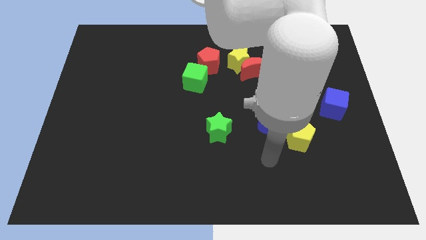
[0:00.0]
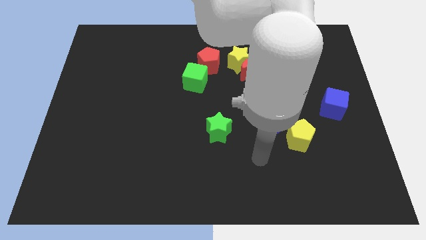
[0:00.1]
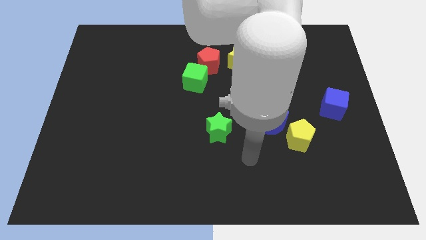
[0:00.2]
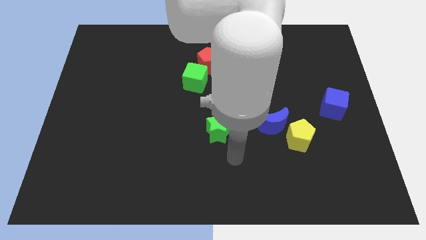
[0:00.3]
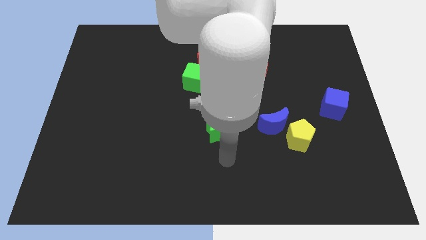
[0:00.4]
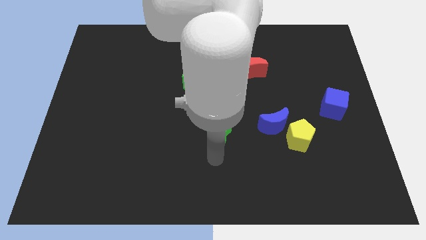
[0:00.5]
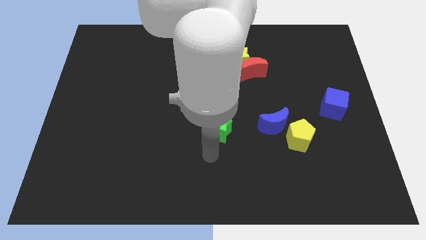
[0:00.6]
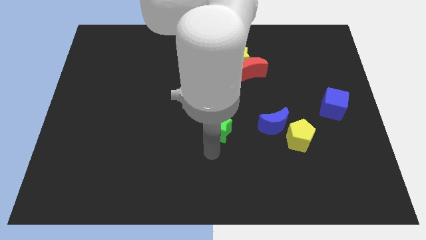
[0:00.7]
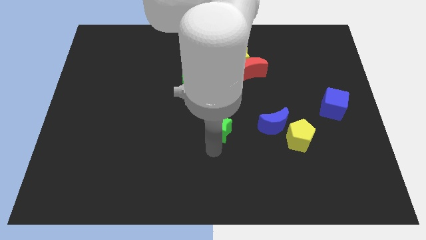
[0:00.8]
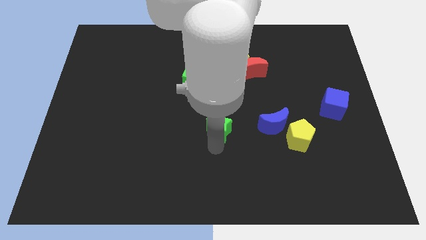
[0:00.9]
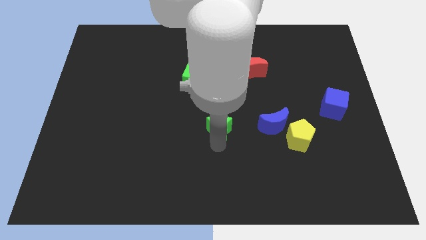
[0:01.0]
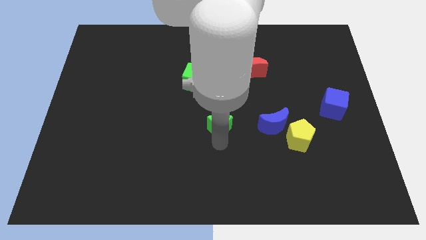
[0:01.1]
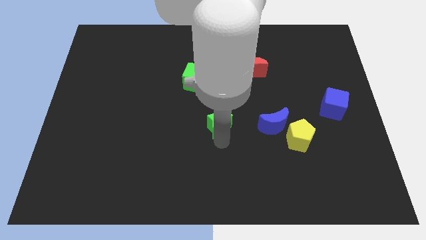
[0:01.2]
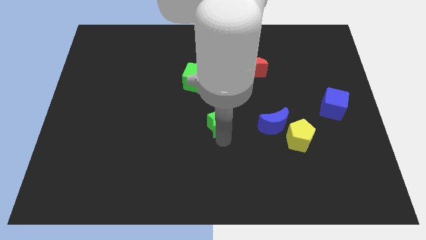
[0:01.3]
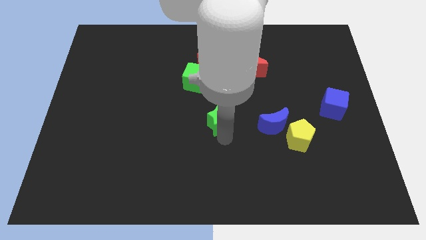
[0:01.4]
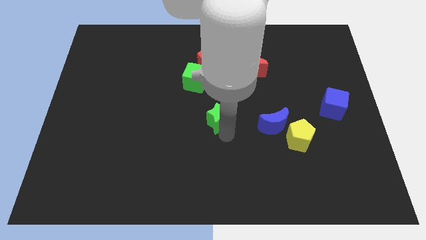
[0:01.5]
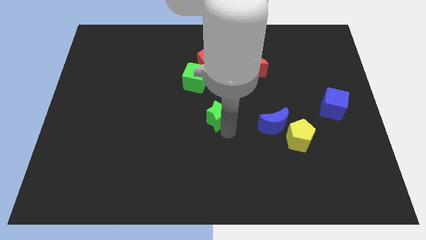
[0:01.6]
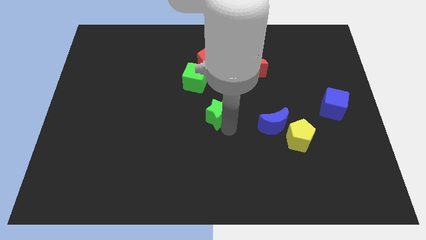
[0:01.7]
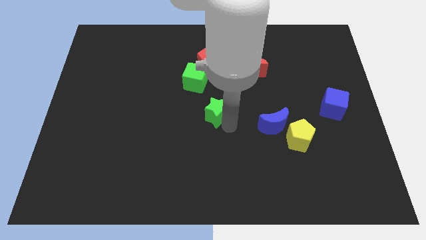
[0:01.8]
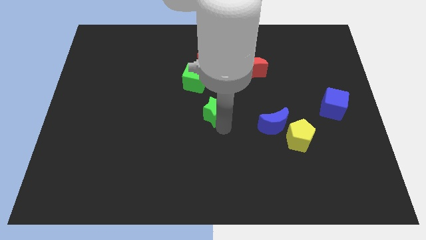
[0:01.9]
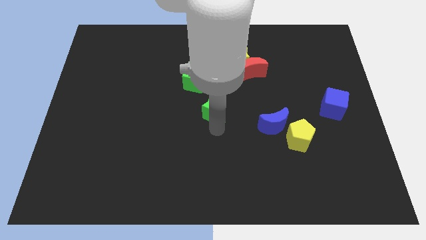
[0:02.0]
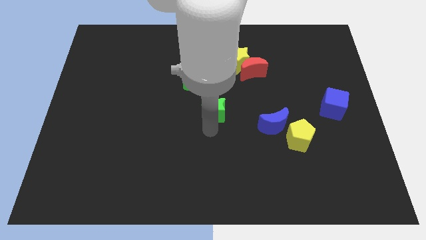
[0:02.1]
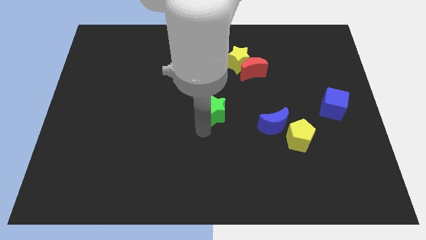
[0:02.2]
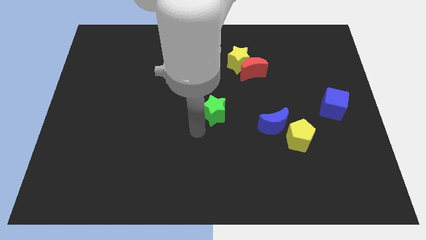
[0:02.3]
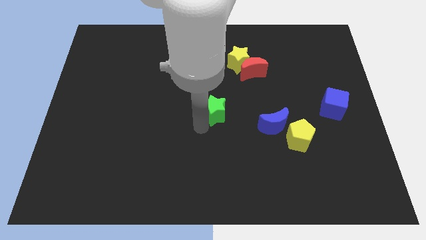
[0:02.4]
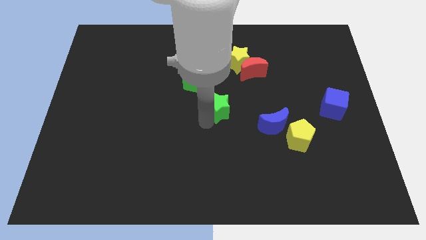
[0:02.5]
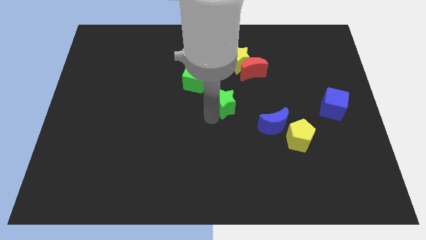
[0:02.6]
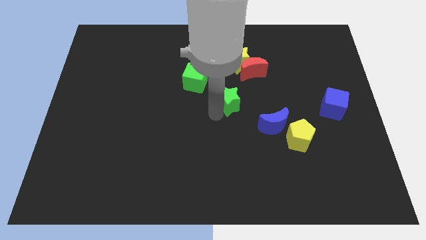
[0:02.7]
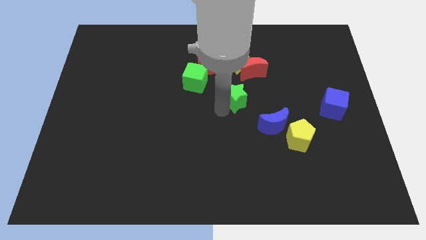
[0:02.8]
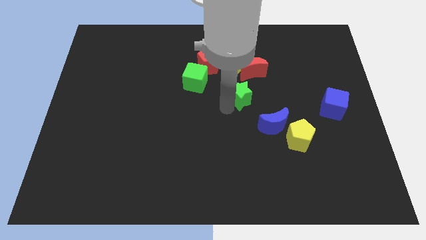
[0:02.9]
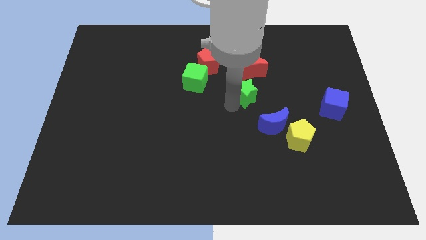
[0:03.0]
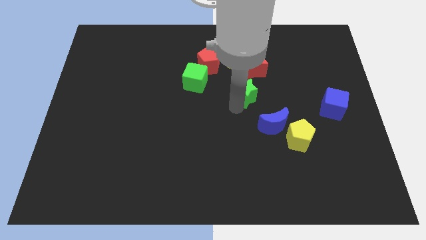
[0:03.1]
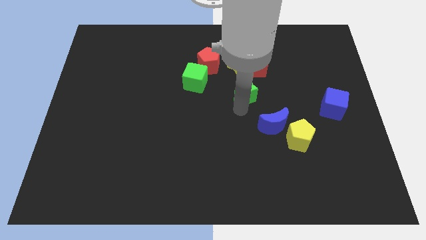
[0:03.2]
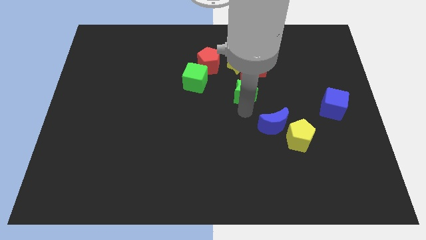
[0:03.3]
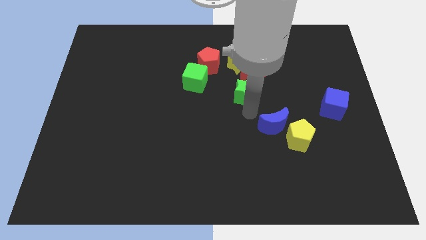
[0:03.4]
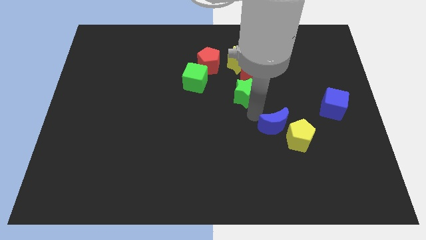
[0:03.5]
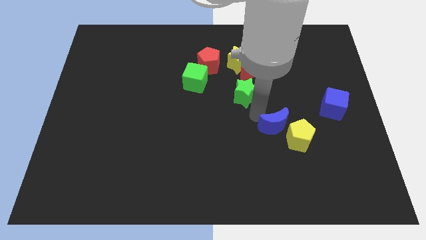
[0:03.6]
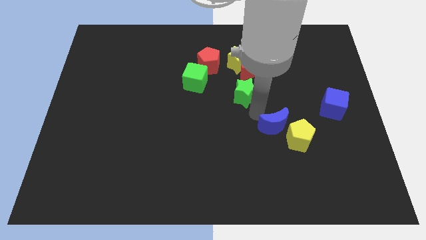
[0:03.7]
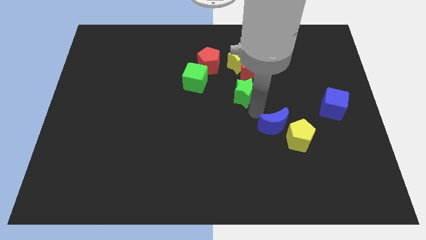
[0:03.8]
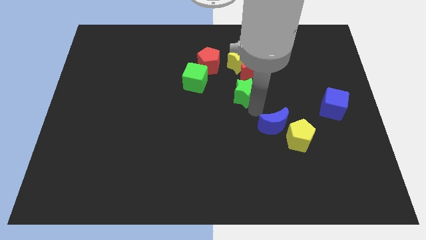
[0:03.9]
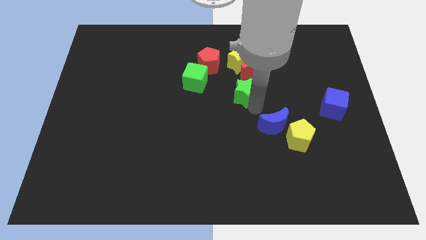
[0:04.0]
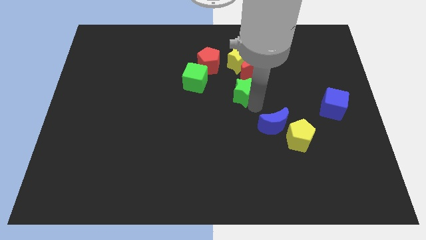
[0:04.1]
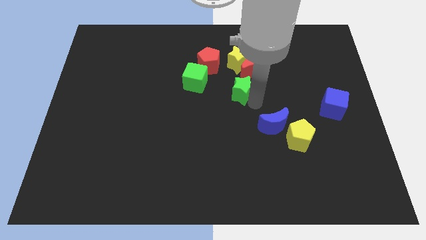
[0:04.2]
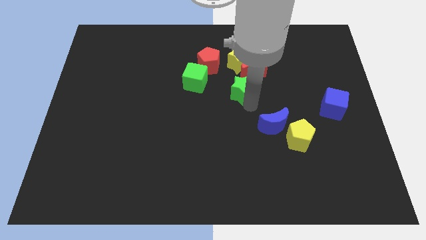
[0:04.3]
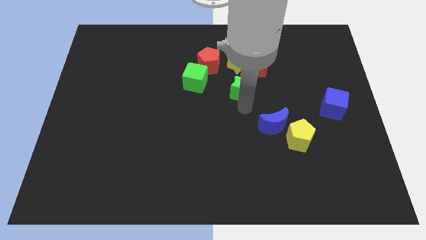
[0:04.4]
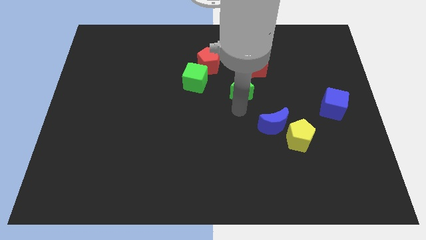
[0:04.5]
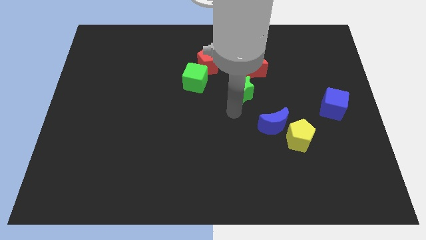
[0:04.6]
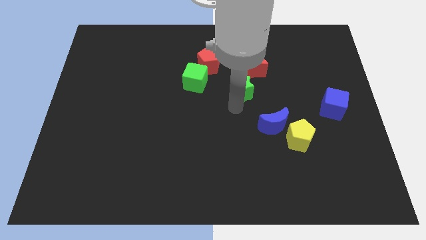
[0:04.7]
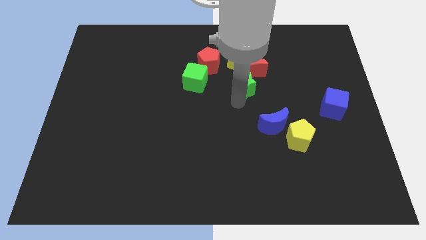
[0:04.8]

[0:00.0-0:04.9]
put the green star next to the red moon

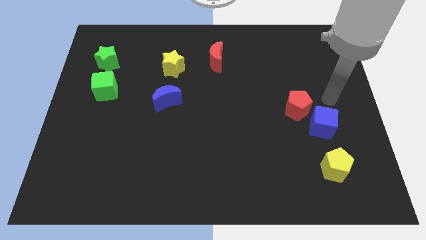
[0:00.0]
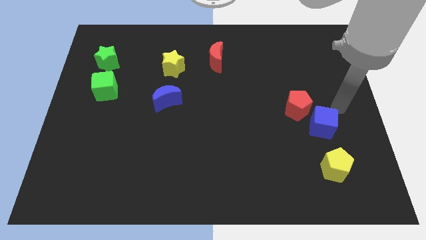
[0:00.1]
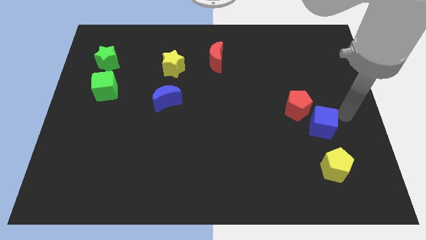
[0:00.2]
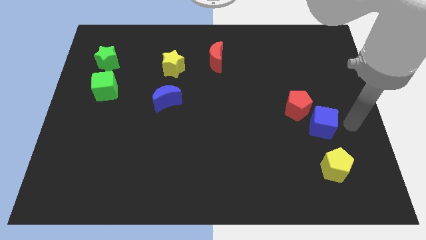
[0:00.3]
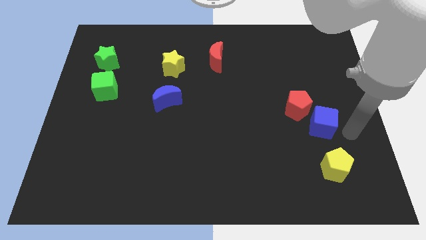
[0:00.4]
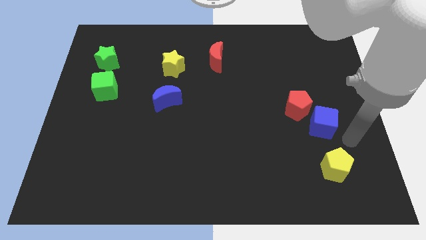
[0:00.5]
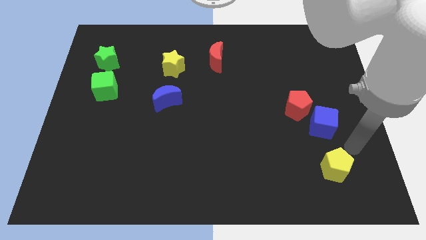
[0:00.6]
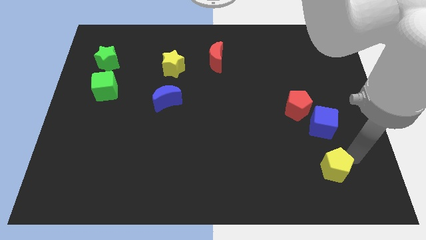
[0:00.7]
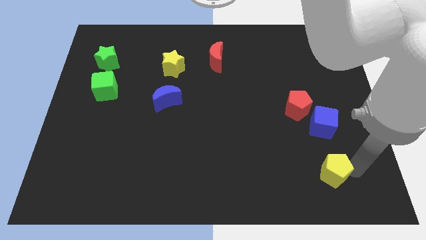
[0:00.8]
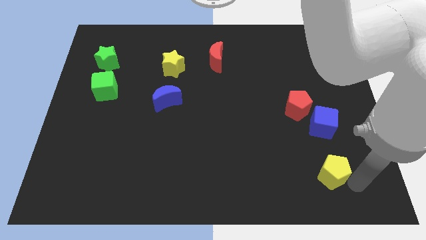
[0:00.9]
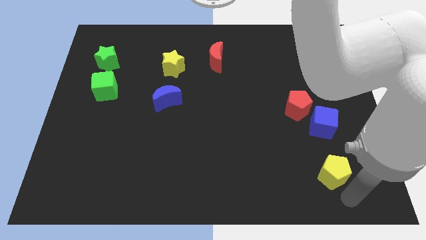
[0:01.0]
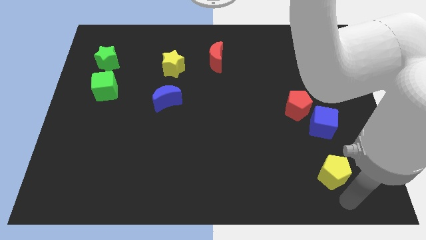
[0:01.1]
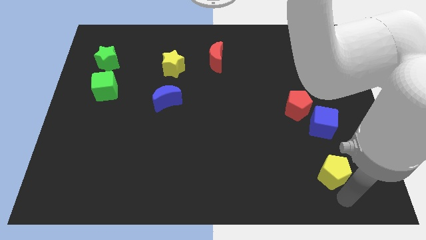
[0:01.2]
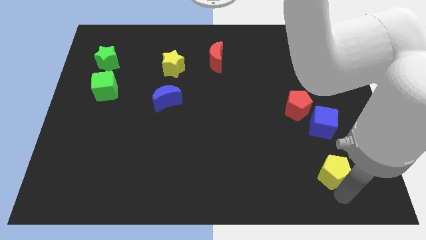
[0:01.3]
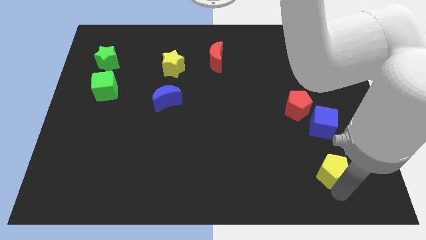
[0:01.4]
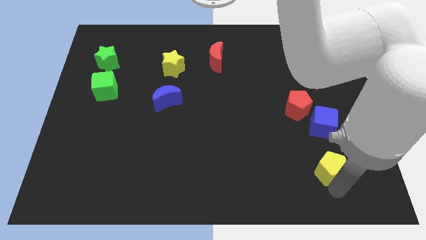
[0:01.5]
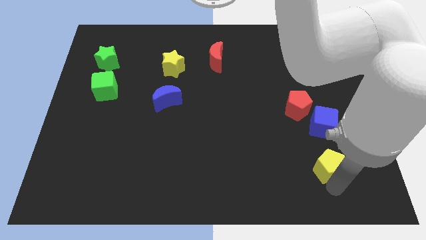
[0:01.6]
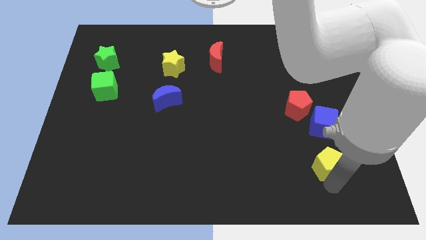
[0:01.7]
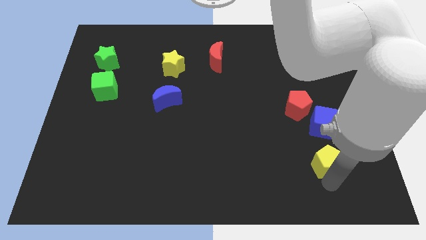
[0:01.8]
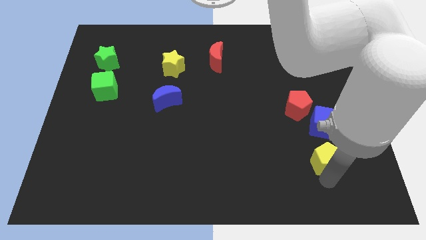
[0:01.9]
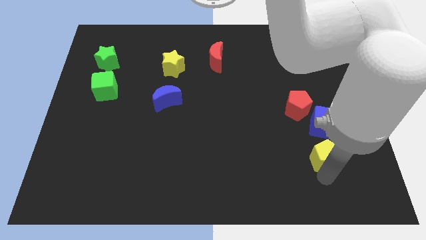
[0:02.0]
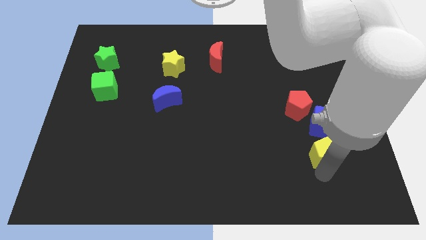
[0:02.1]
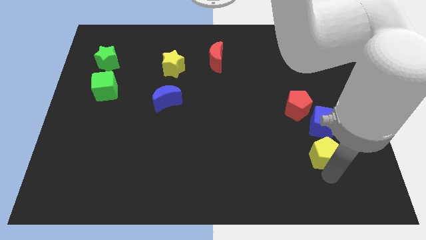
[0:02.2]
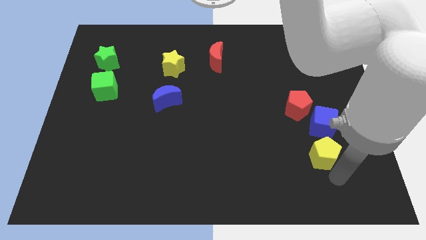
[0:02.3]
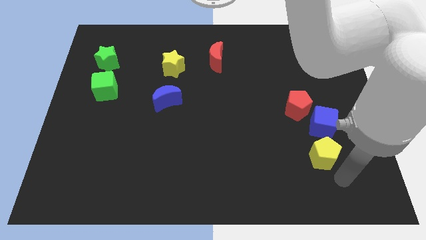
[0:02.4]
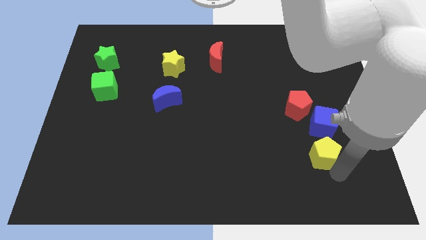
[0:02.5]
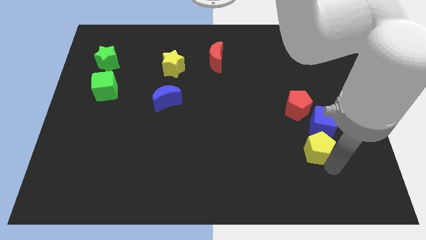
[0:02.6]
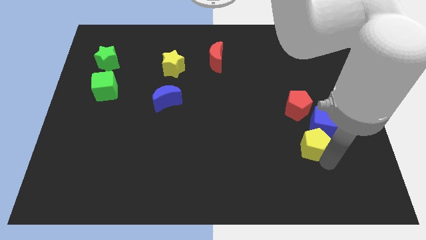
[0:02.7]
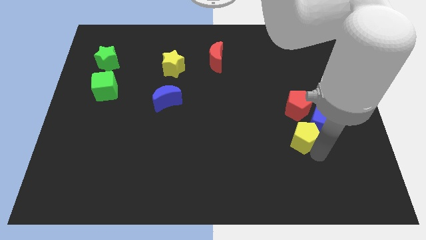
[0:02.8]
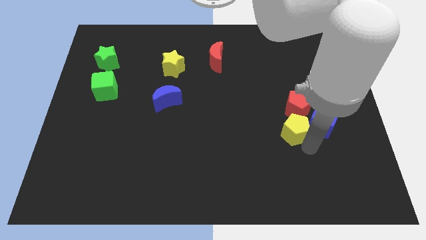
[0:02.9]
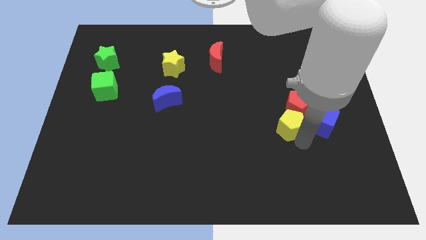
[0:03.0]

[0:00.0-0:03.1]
slide the yellow pentagon next to the red pentagon

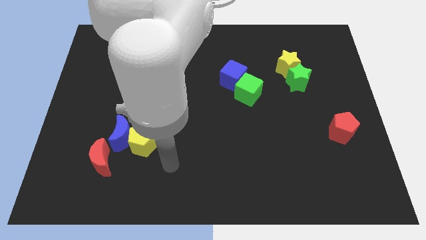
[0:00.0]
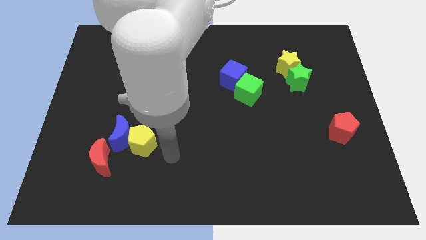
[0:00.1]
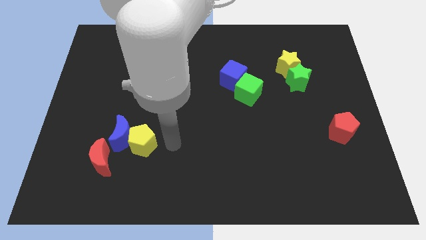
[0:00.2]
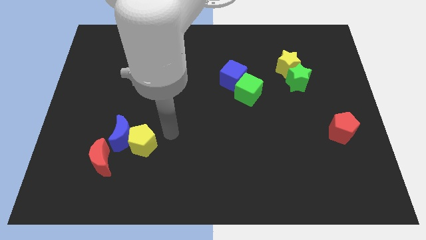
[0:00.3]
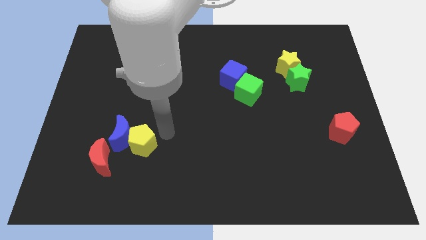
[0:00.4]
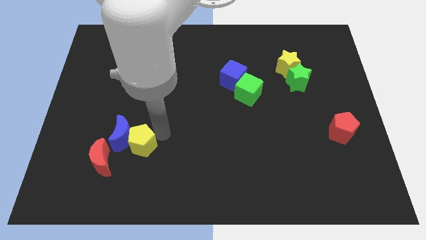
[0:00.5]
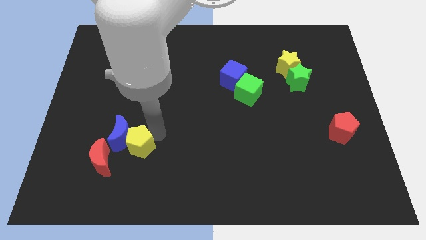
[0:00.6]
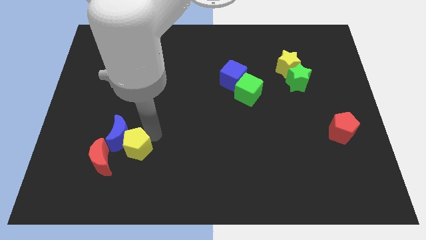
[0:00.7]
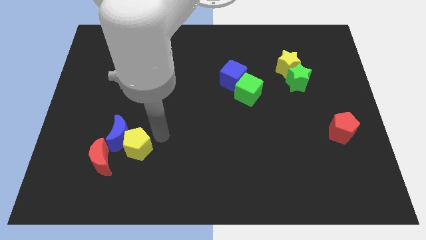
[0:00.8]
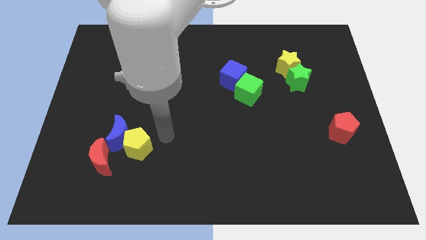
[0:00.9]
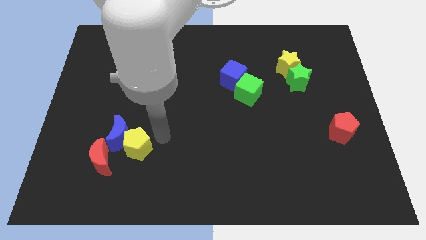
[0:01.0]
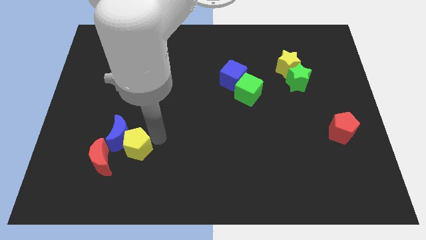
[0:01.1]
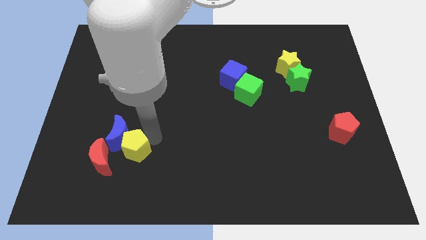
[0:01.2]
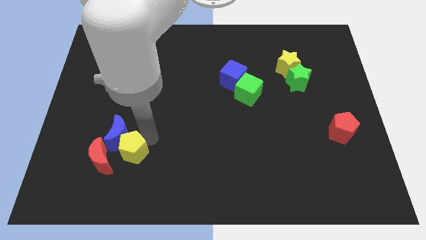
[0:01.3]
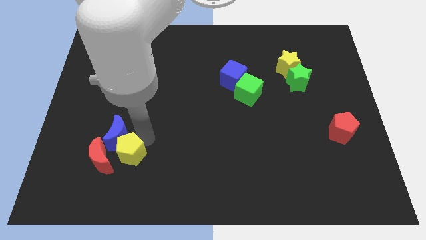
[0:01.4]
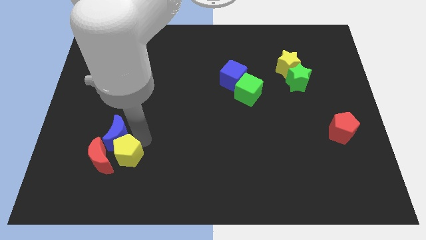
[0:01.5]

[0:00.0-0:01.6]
put the yellow pentagon to the red moon
